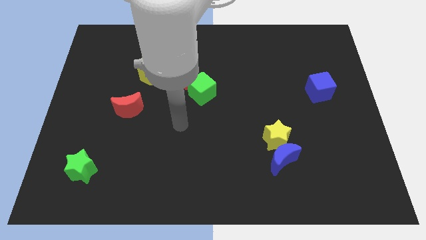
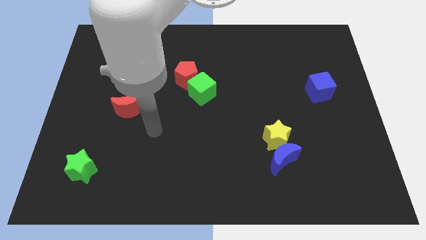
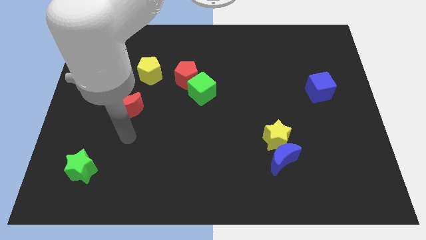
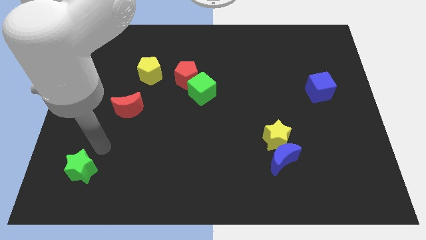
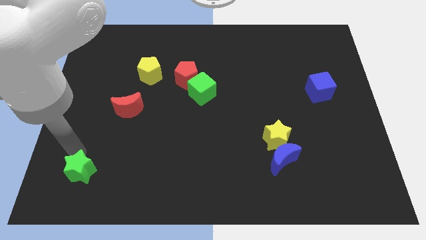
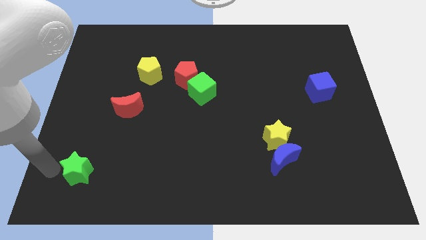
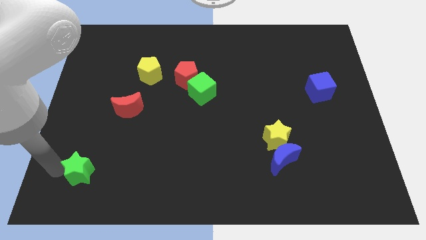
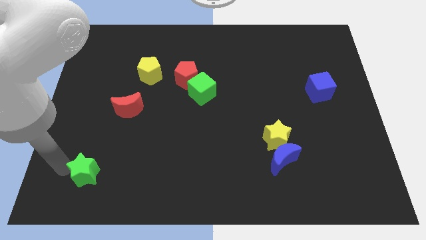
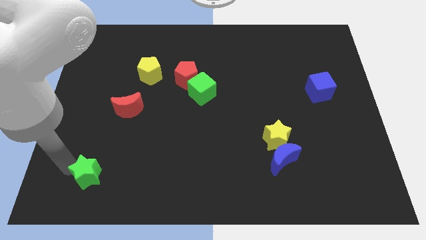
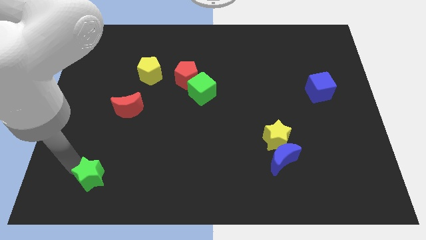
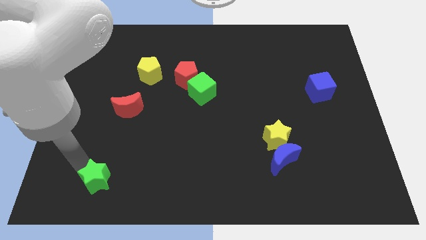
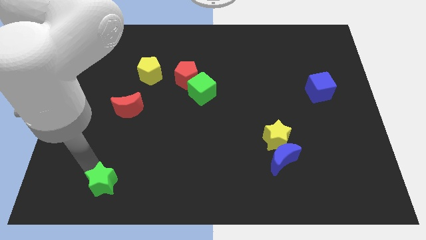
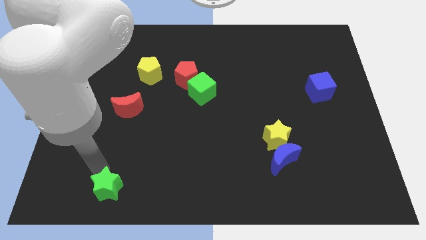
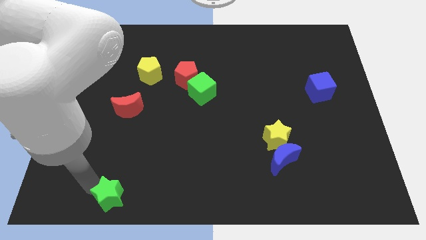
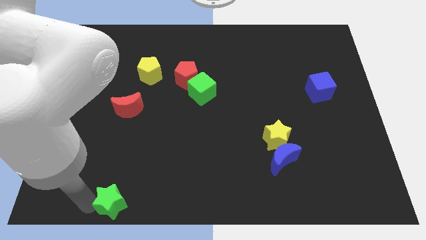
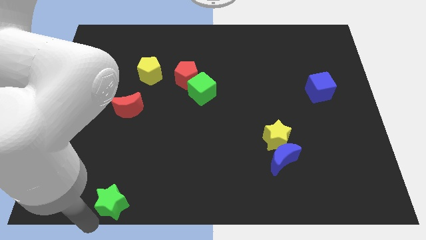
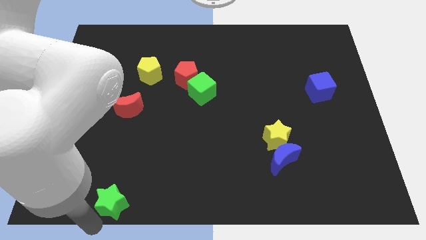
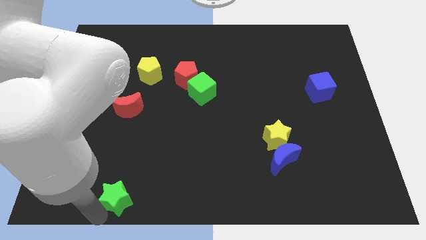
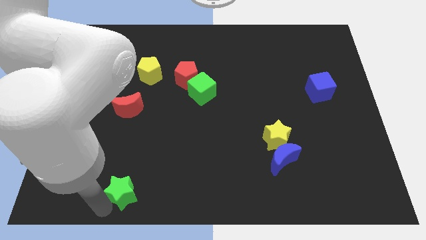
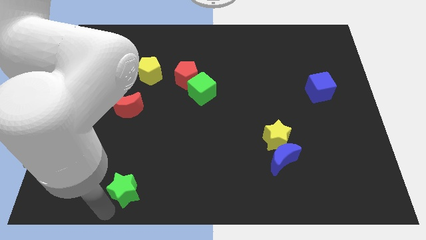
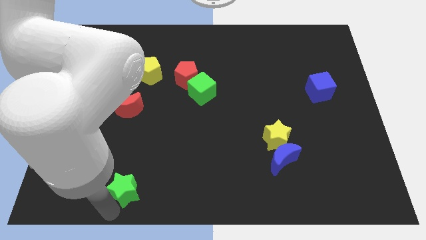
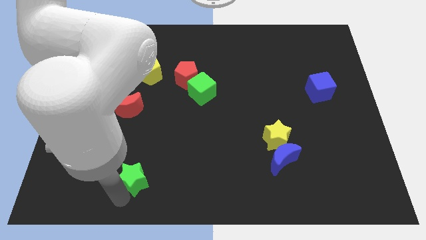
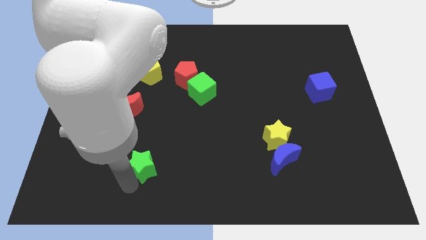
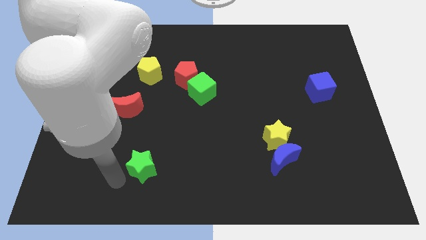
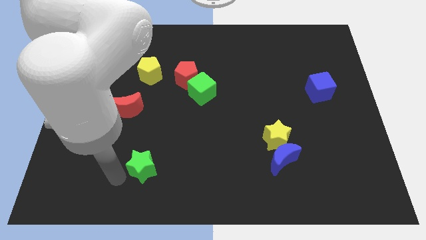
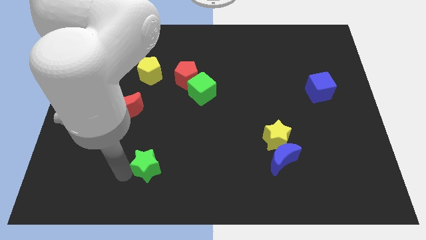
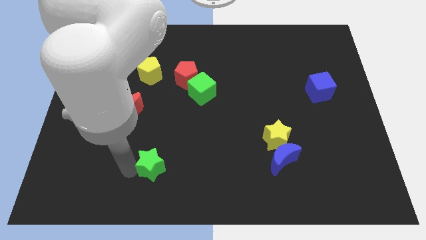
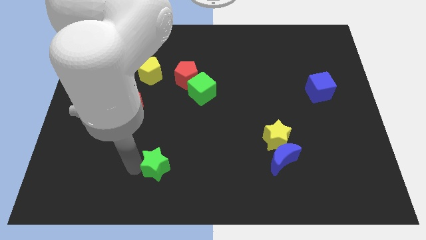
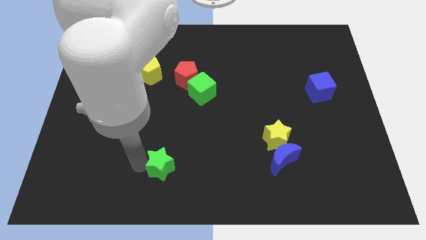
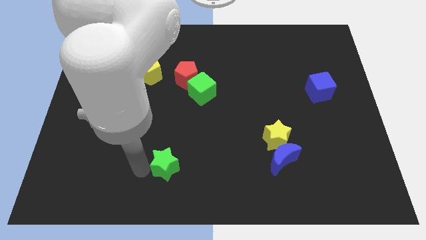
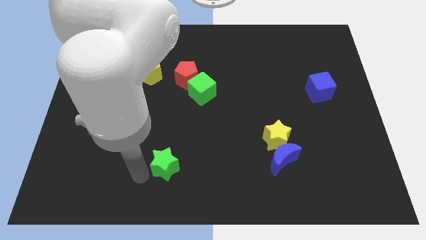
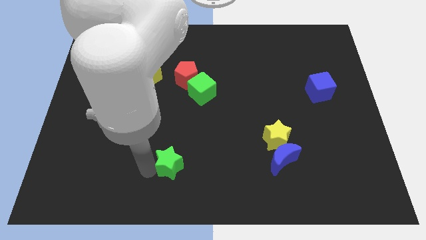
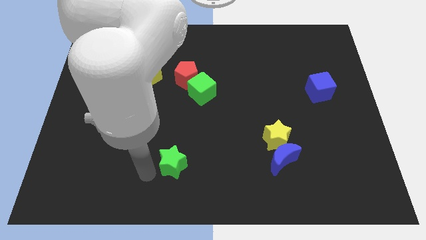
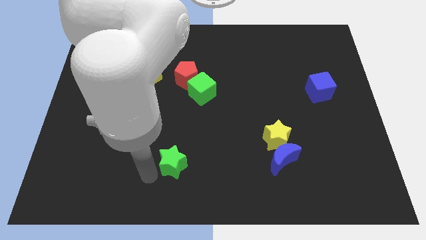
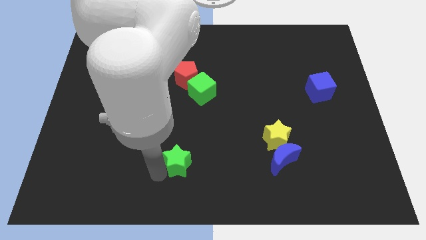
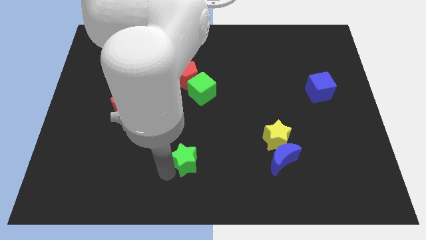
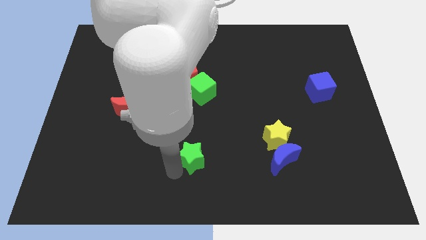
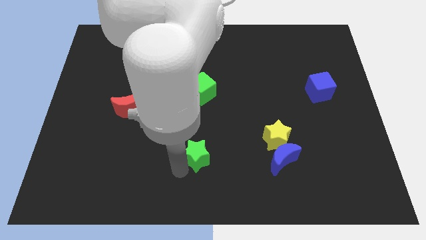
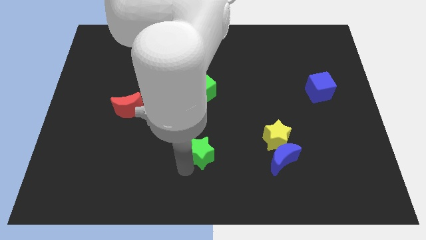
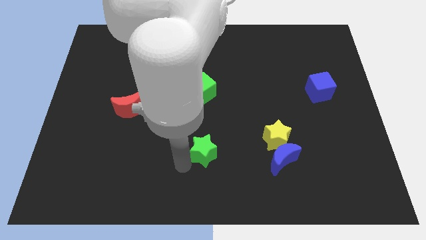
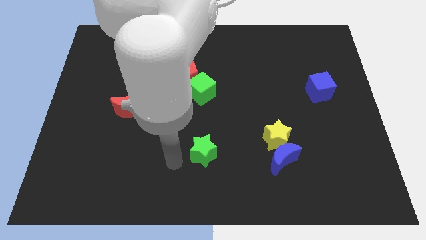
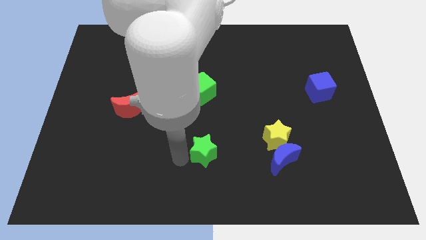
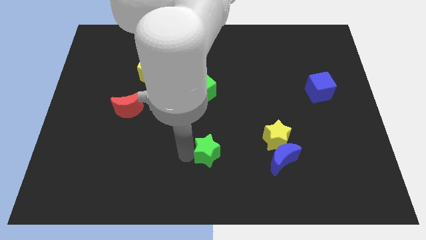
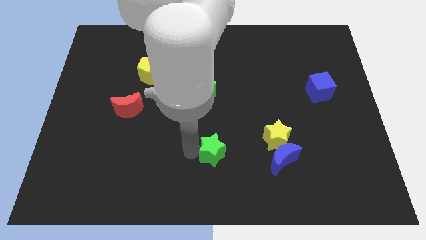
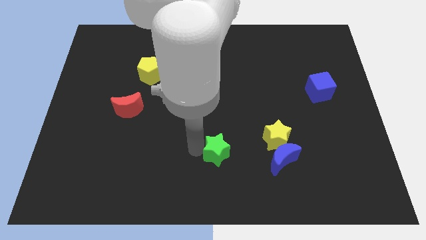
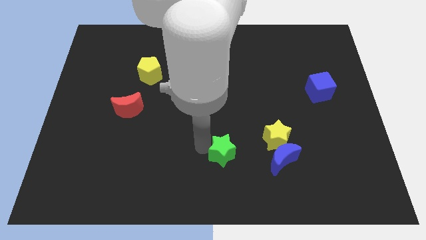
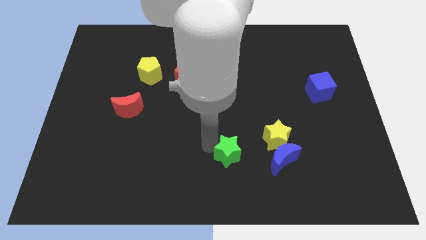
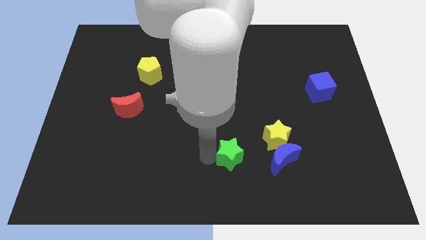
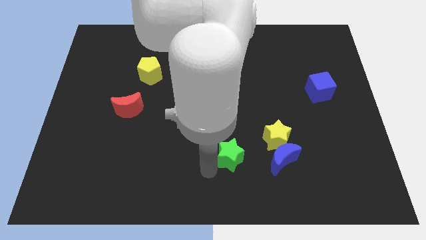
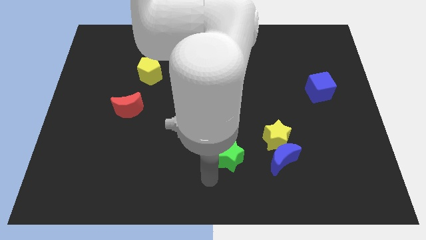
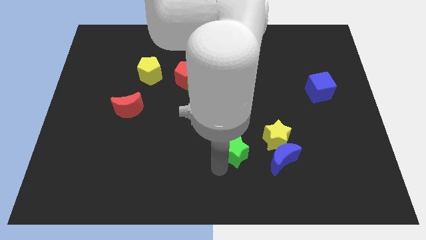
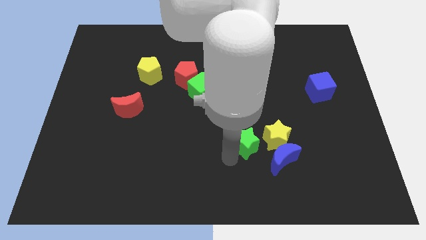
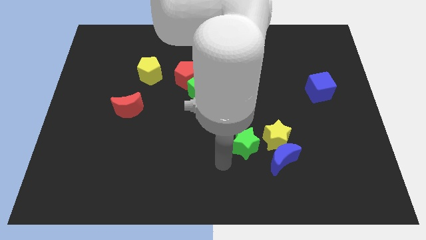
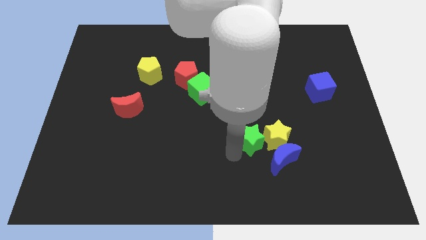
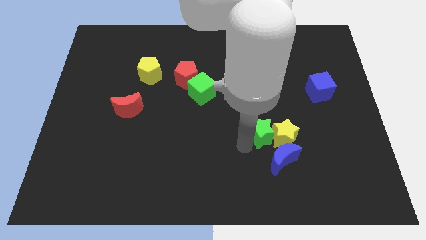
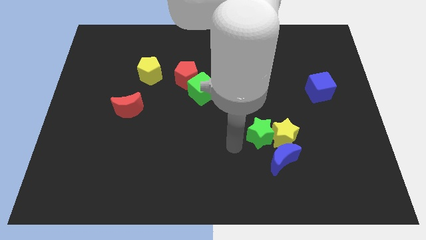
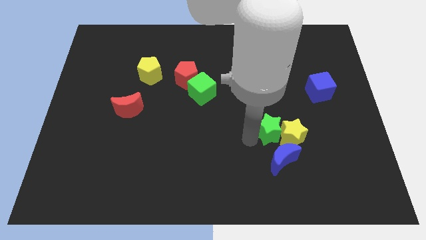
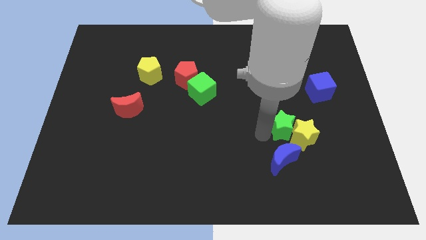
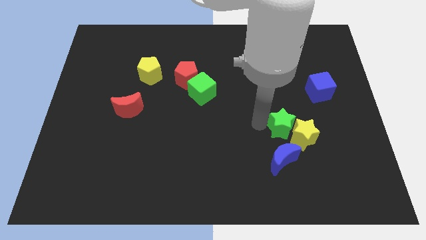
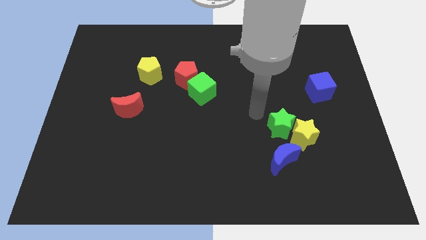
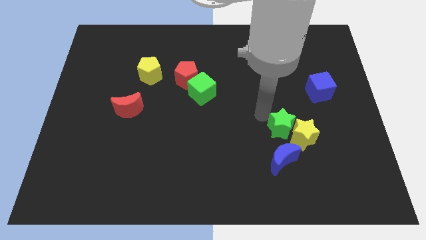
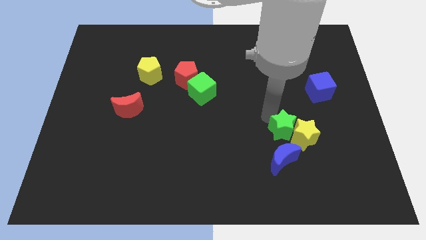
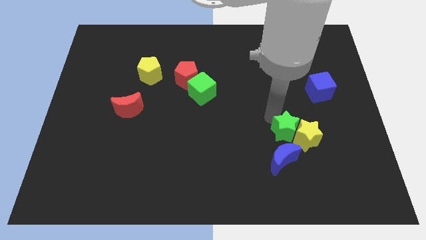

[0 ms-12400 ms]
push the green star to the top right side of the blue moon
